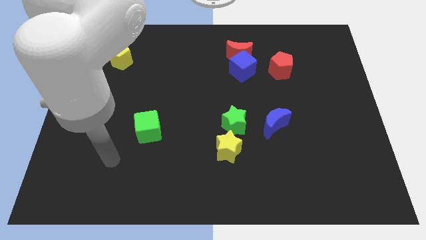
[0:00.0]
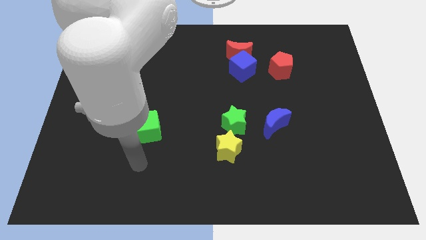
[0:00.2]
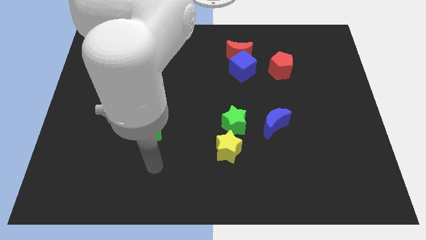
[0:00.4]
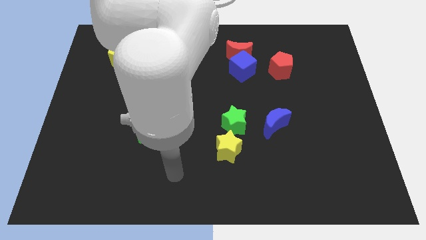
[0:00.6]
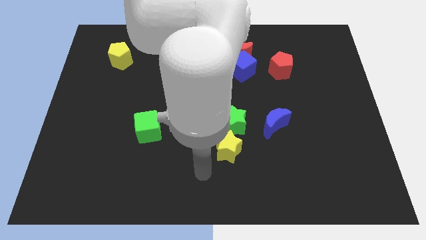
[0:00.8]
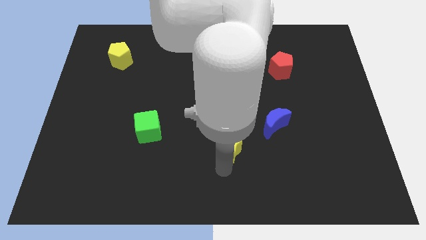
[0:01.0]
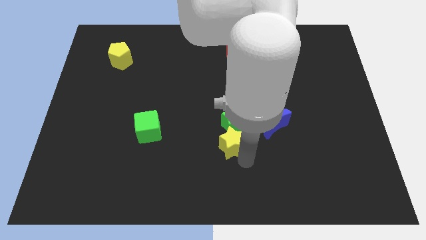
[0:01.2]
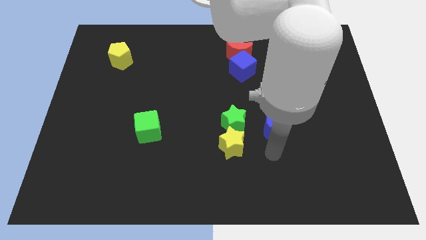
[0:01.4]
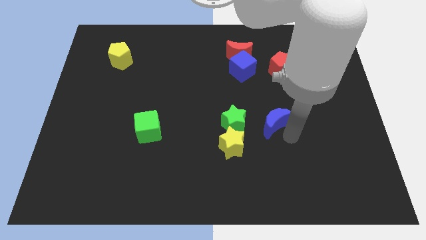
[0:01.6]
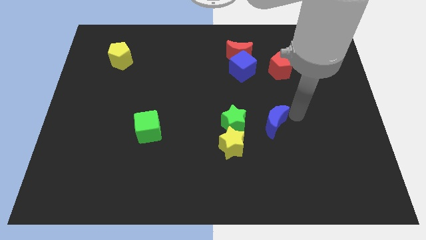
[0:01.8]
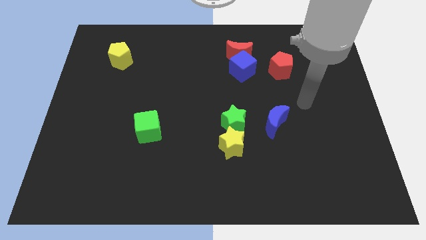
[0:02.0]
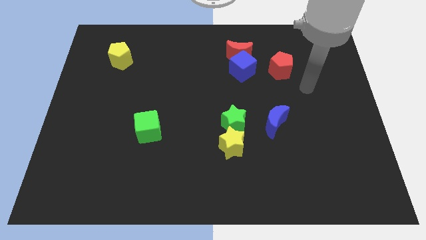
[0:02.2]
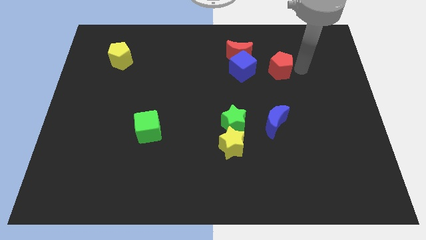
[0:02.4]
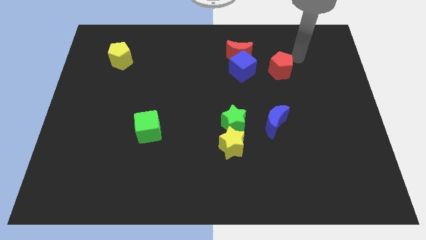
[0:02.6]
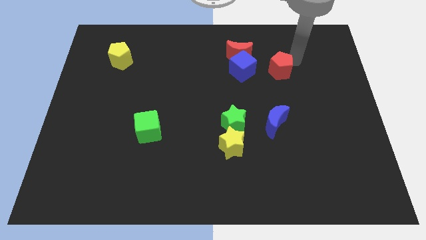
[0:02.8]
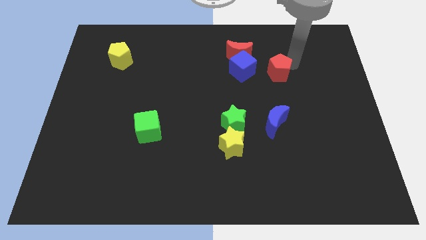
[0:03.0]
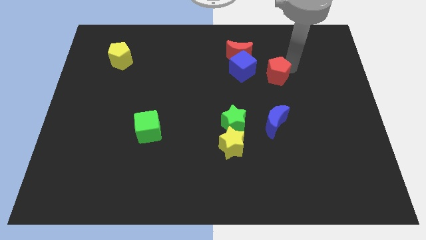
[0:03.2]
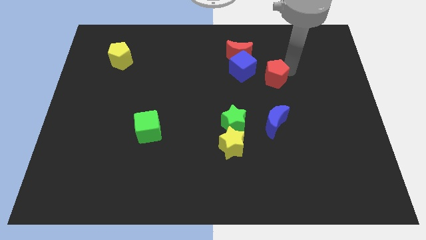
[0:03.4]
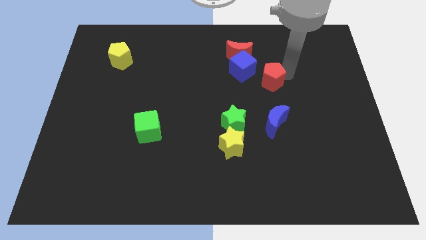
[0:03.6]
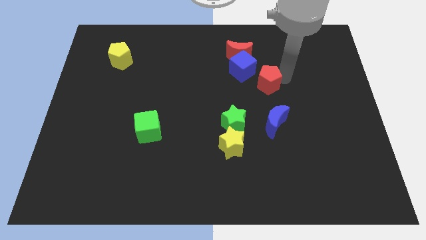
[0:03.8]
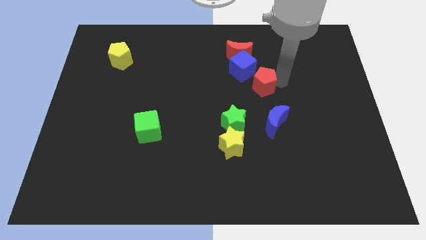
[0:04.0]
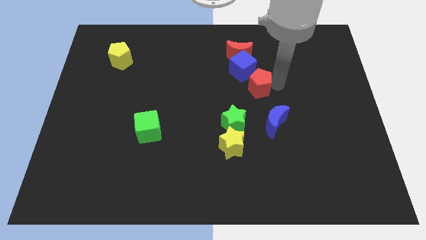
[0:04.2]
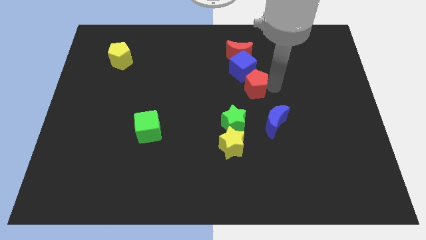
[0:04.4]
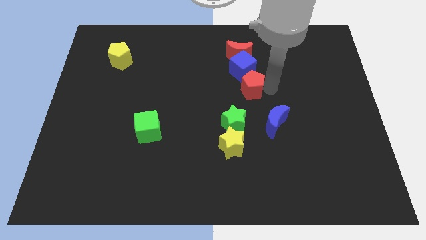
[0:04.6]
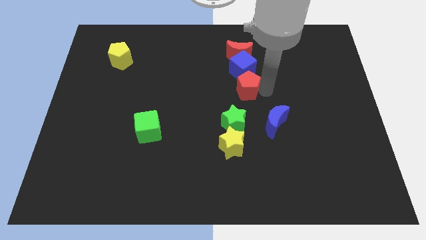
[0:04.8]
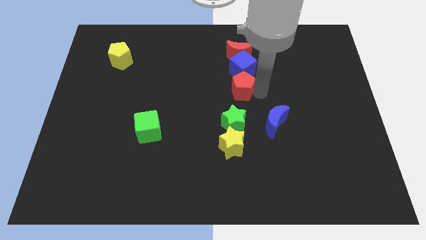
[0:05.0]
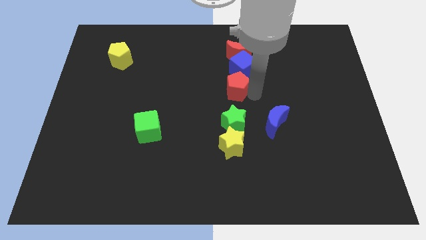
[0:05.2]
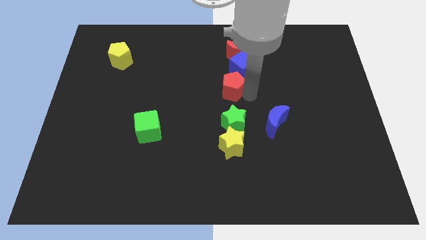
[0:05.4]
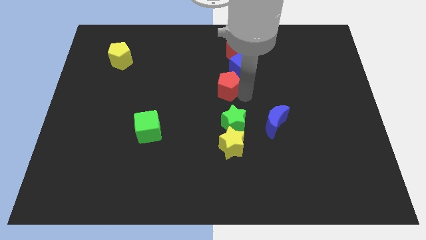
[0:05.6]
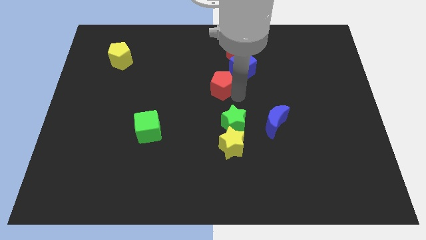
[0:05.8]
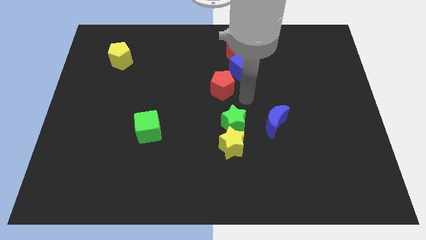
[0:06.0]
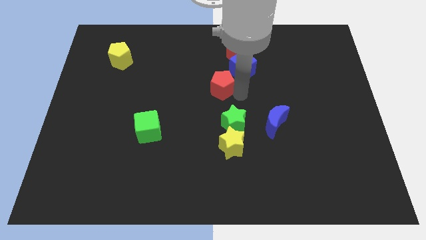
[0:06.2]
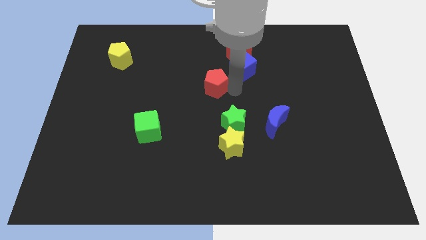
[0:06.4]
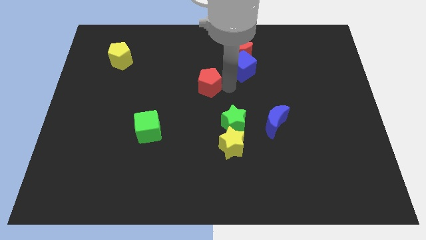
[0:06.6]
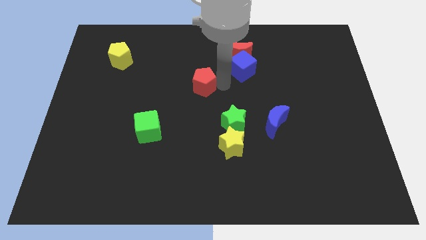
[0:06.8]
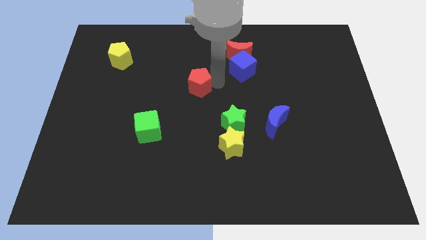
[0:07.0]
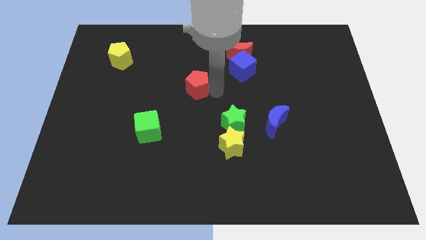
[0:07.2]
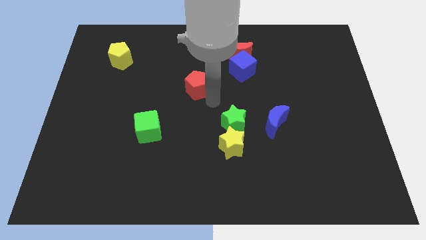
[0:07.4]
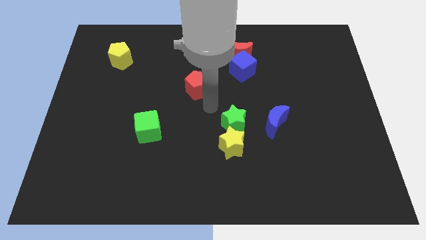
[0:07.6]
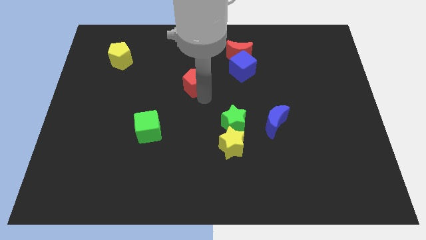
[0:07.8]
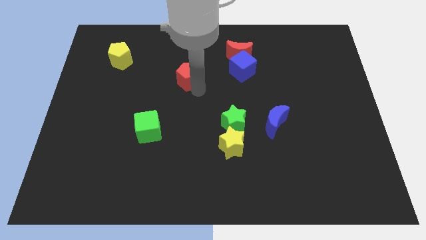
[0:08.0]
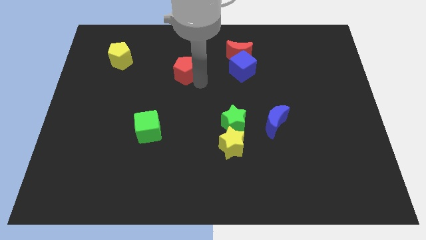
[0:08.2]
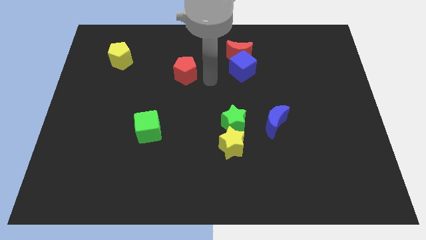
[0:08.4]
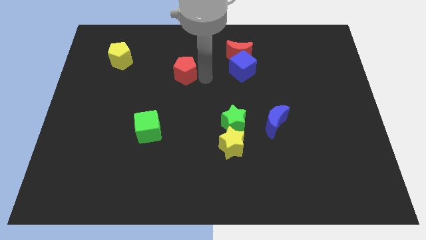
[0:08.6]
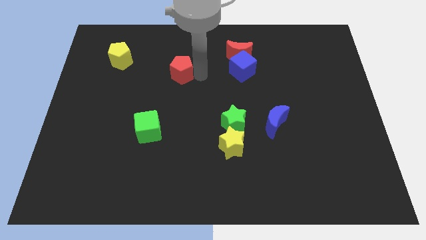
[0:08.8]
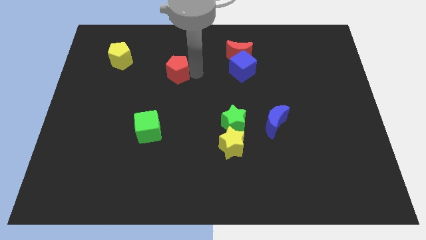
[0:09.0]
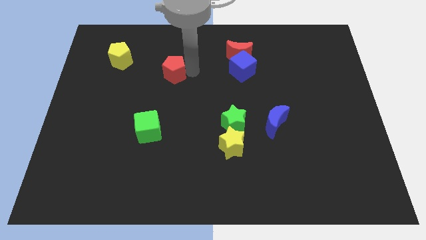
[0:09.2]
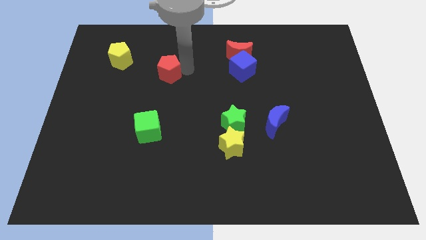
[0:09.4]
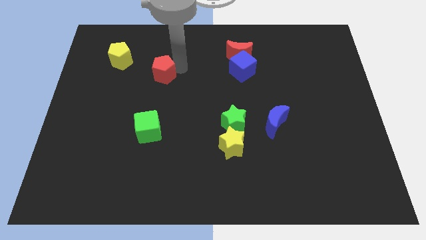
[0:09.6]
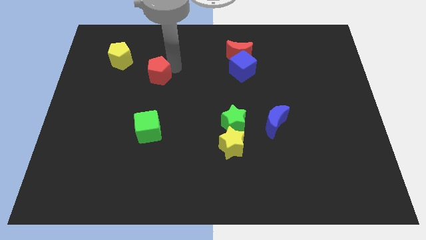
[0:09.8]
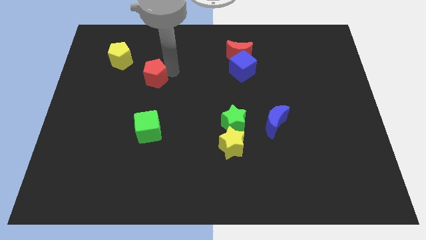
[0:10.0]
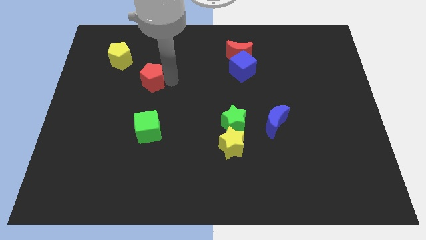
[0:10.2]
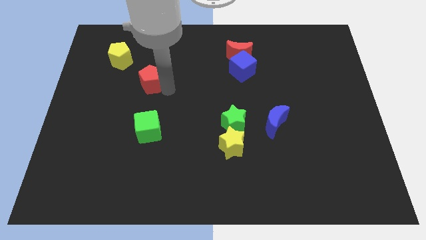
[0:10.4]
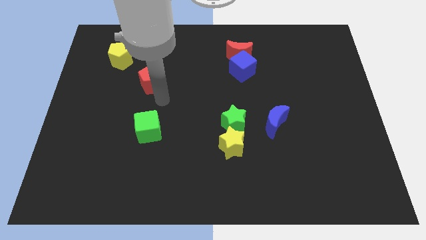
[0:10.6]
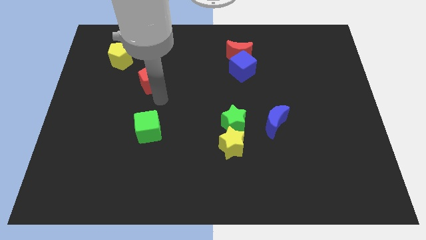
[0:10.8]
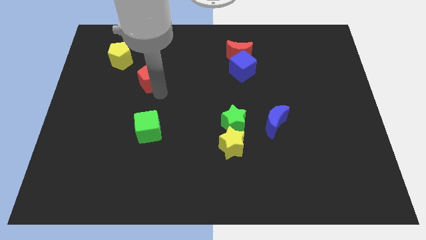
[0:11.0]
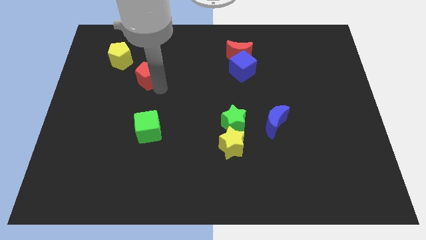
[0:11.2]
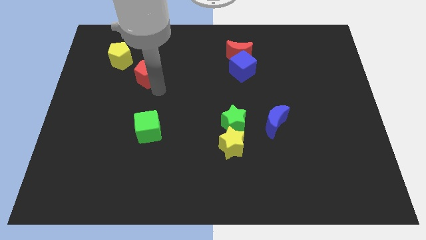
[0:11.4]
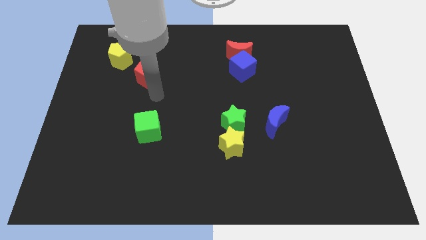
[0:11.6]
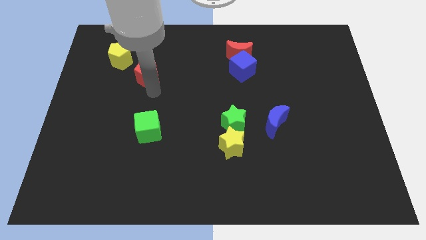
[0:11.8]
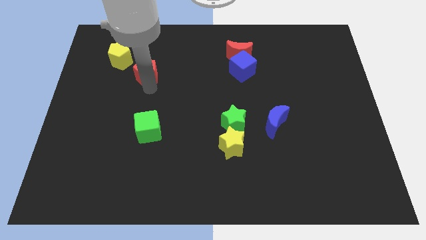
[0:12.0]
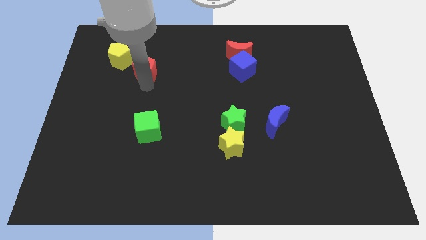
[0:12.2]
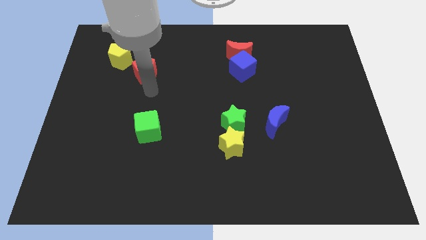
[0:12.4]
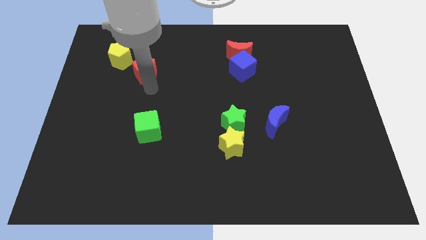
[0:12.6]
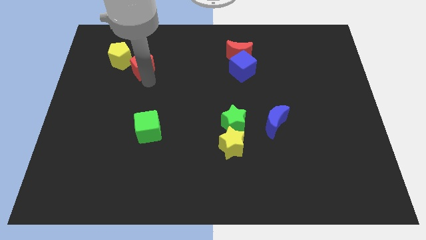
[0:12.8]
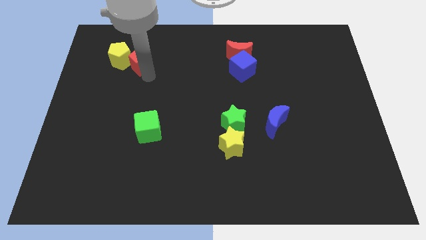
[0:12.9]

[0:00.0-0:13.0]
slide the red pentagon to the yellow pentagon
